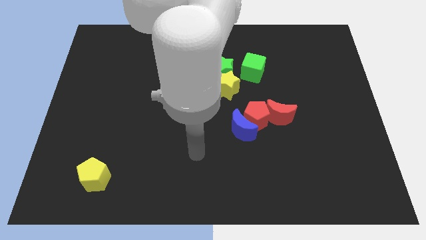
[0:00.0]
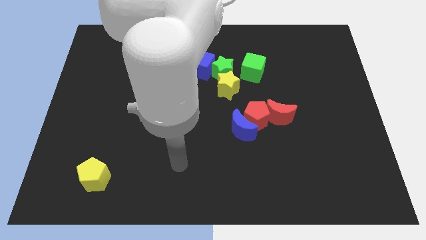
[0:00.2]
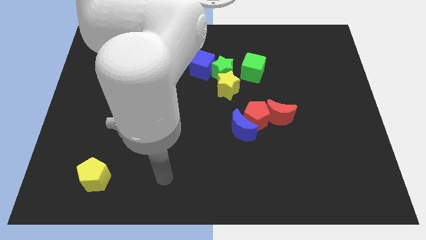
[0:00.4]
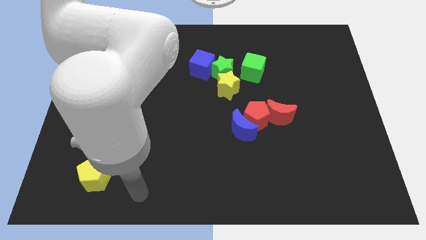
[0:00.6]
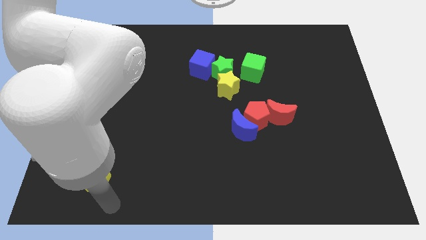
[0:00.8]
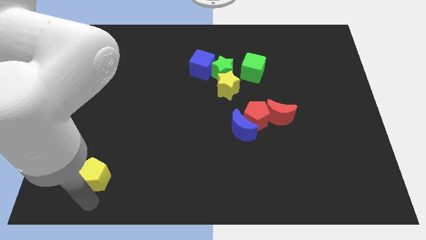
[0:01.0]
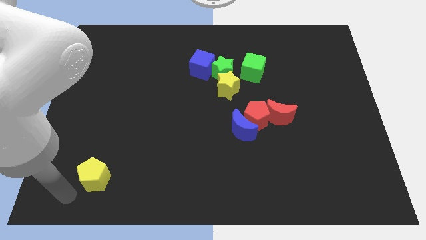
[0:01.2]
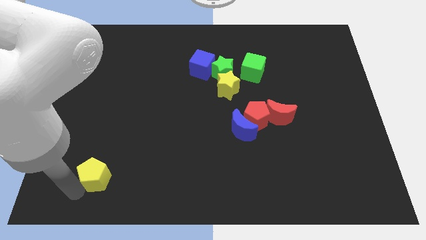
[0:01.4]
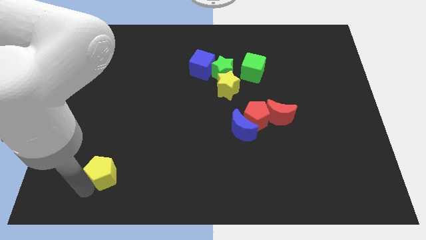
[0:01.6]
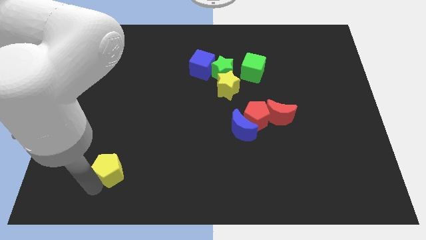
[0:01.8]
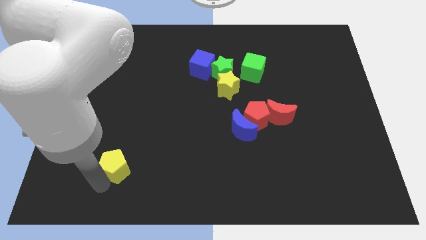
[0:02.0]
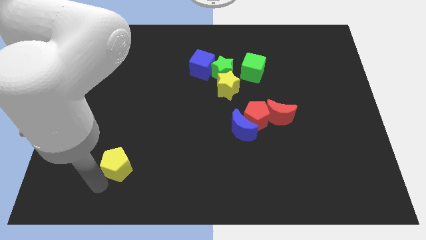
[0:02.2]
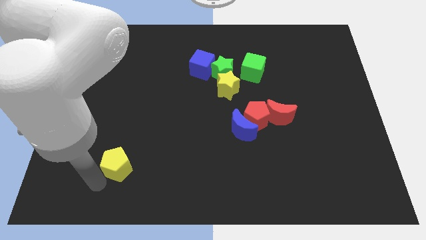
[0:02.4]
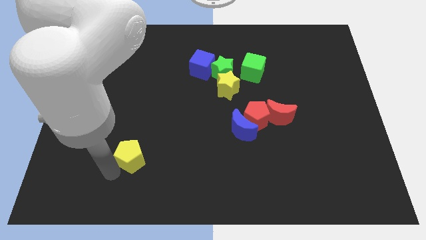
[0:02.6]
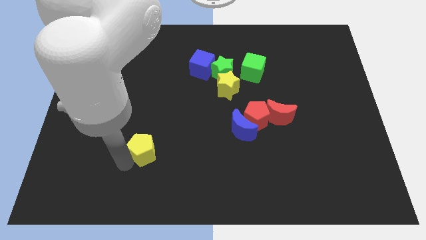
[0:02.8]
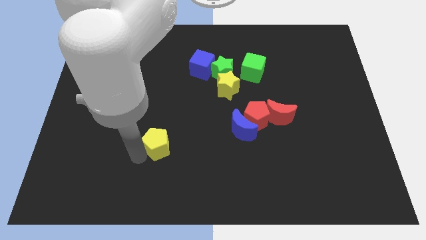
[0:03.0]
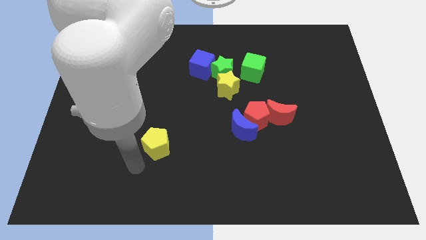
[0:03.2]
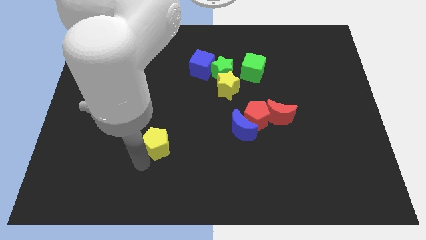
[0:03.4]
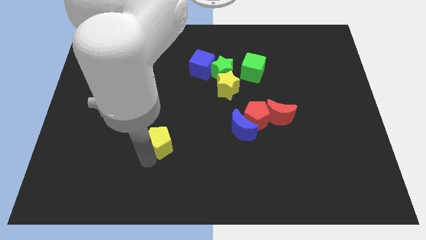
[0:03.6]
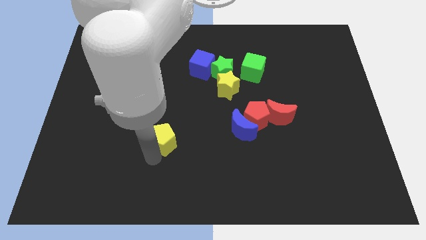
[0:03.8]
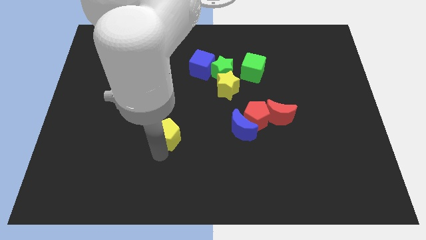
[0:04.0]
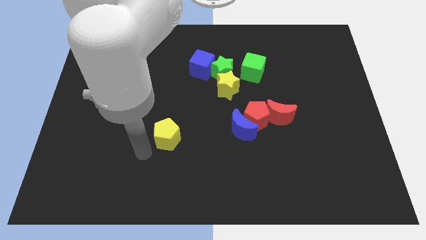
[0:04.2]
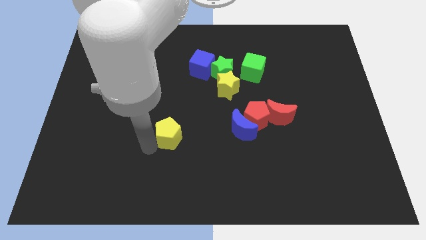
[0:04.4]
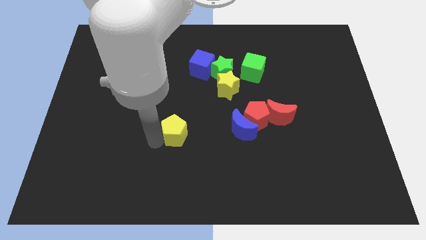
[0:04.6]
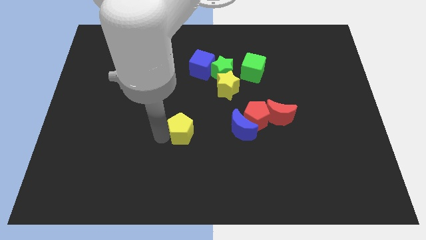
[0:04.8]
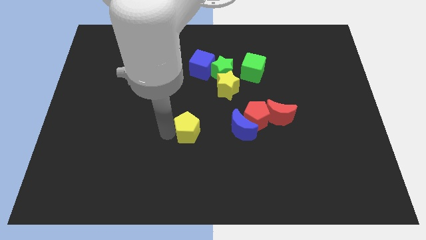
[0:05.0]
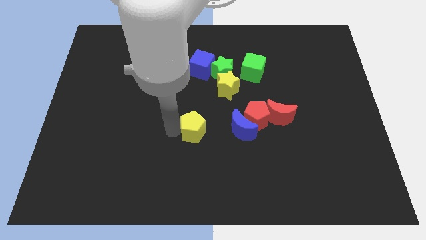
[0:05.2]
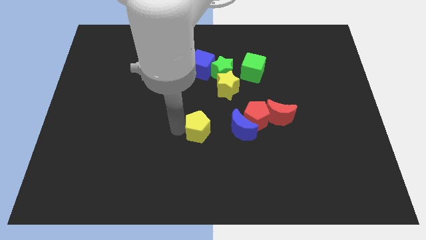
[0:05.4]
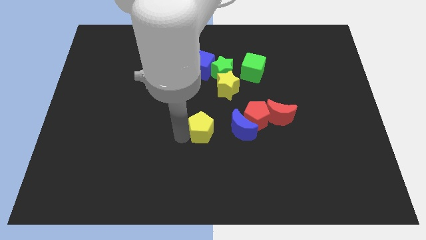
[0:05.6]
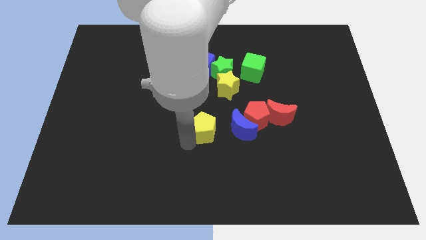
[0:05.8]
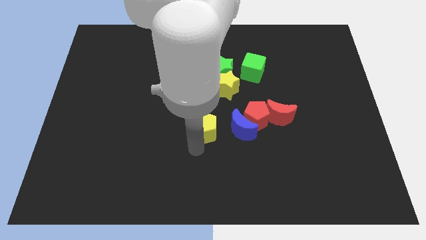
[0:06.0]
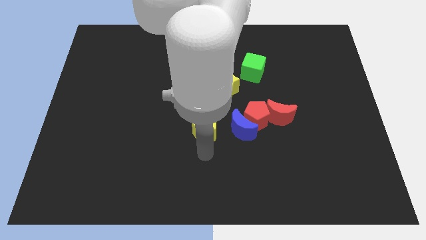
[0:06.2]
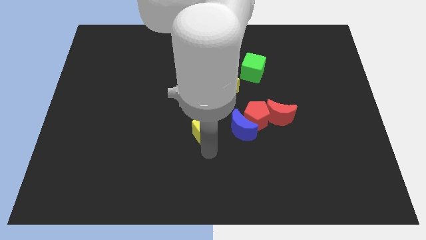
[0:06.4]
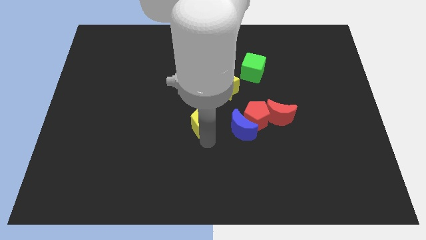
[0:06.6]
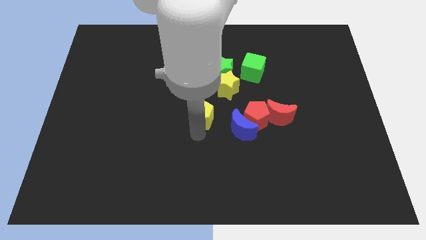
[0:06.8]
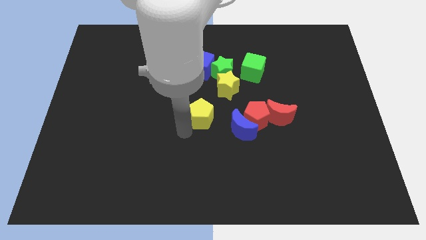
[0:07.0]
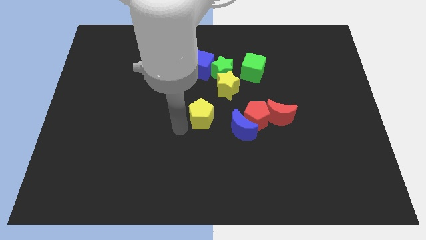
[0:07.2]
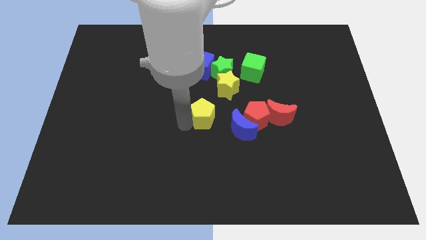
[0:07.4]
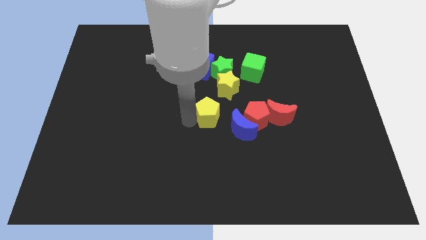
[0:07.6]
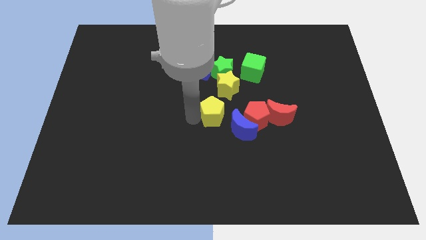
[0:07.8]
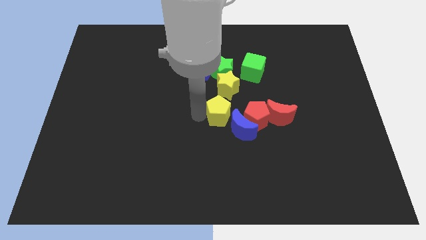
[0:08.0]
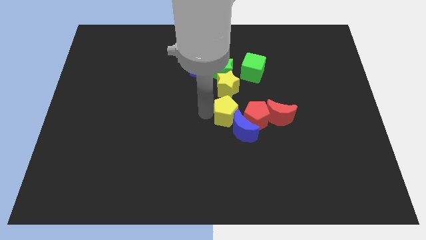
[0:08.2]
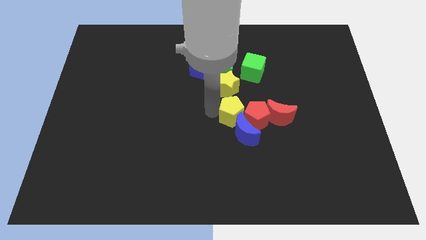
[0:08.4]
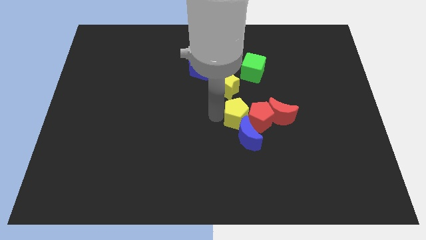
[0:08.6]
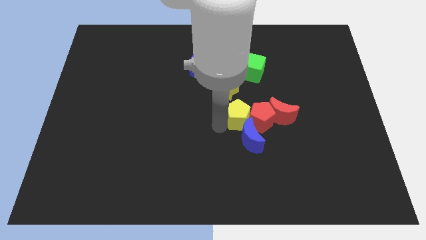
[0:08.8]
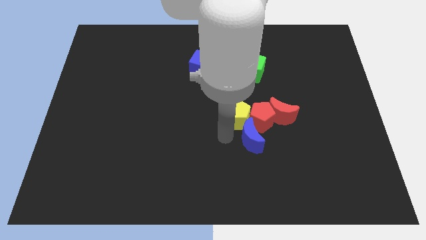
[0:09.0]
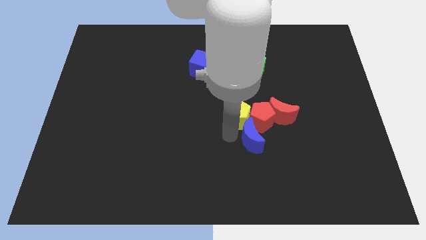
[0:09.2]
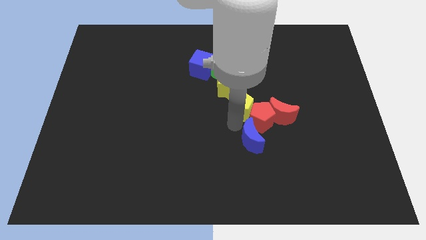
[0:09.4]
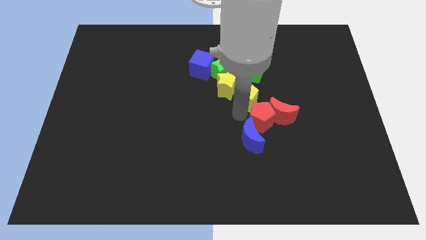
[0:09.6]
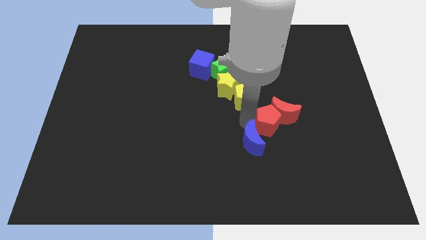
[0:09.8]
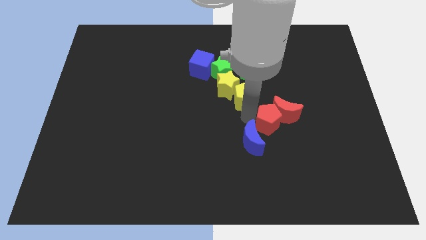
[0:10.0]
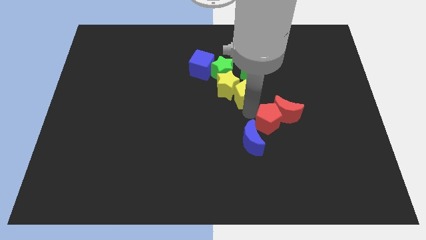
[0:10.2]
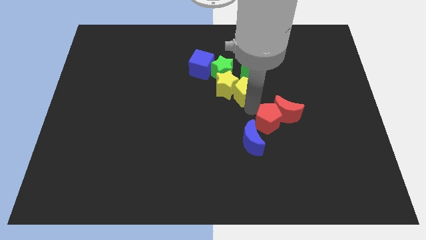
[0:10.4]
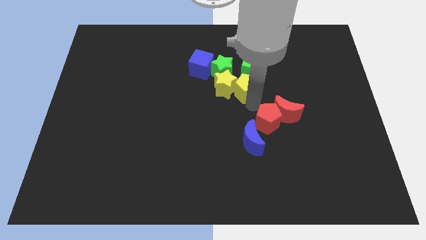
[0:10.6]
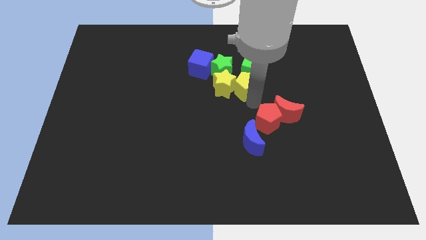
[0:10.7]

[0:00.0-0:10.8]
slide the yellow pentagon close to the green cube

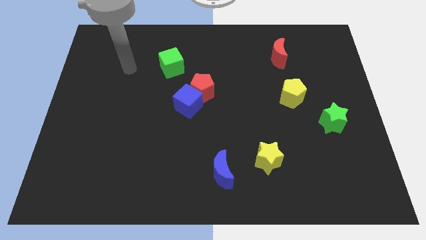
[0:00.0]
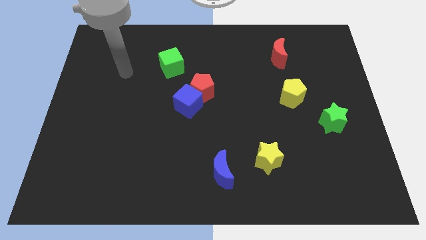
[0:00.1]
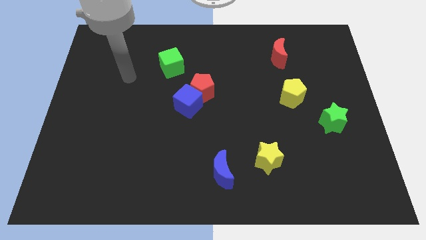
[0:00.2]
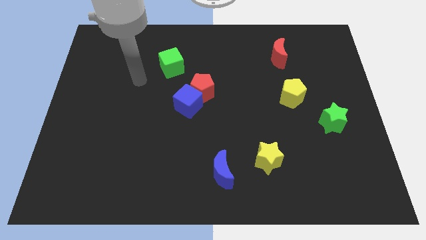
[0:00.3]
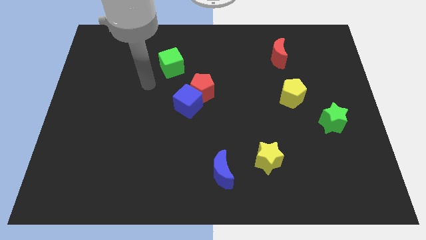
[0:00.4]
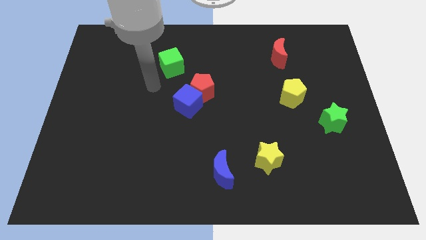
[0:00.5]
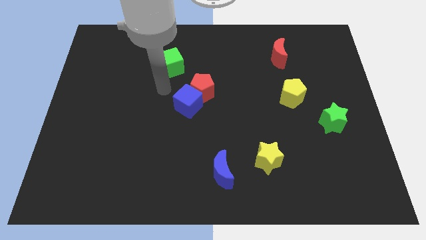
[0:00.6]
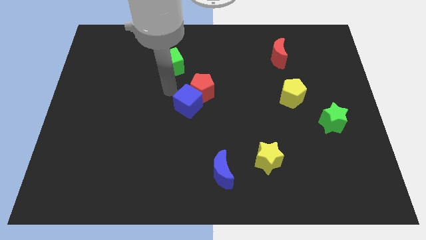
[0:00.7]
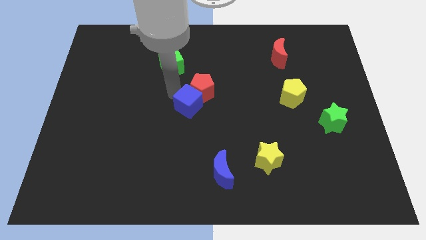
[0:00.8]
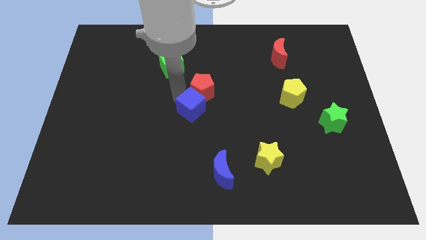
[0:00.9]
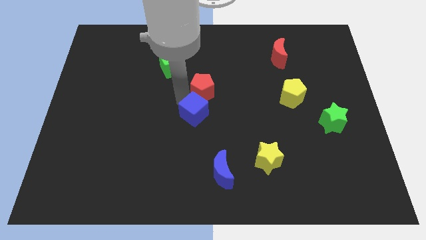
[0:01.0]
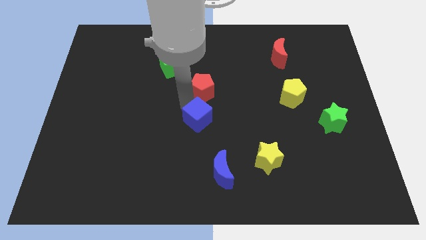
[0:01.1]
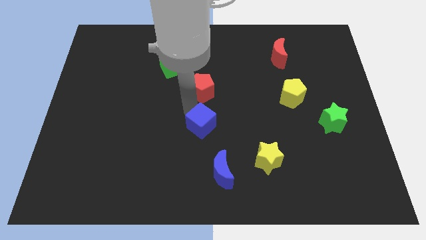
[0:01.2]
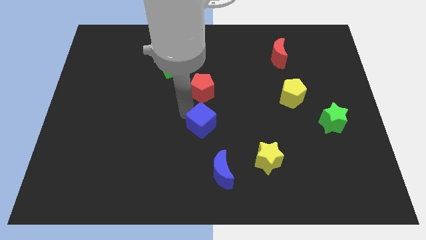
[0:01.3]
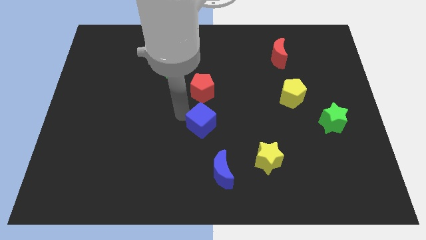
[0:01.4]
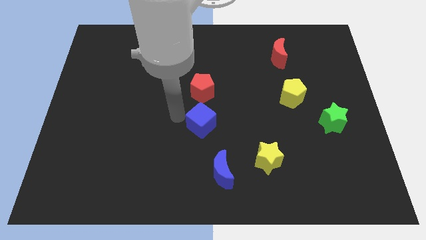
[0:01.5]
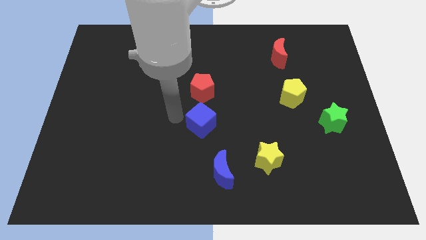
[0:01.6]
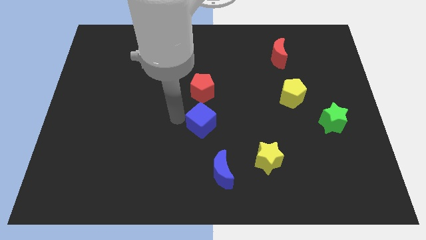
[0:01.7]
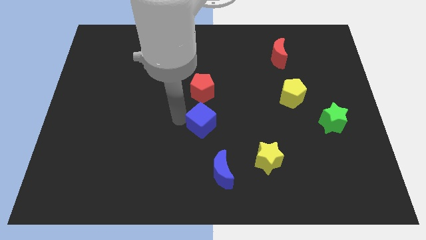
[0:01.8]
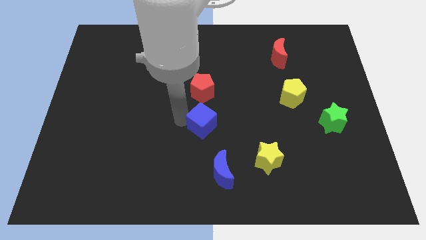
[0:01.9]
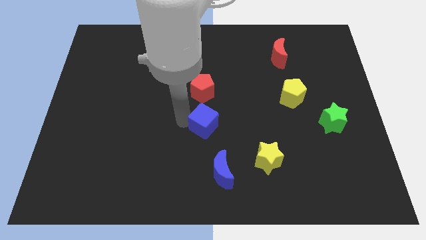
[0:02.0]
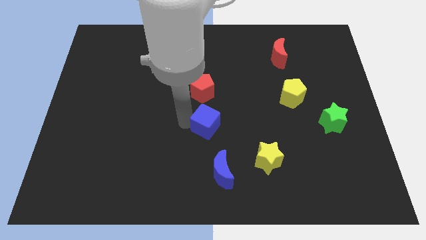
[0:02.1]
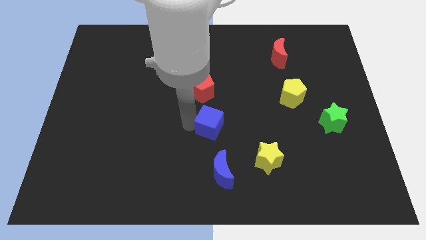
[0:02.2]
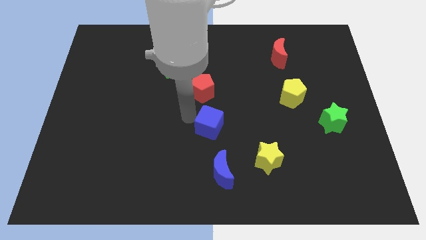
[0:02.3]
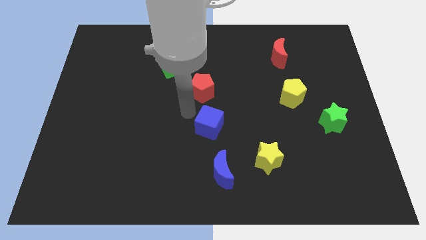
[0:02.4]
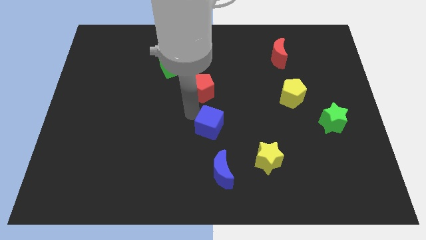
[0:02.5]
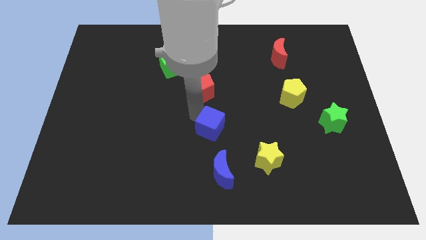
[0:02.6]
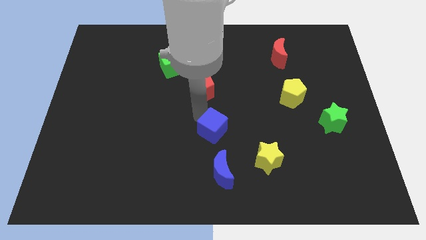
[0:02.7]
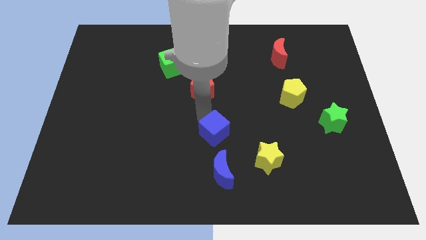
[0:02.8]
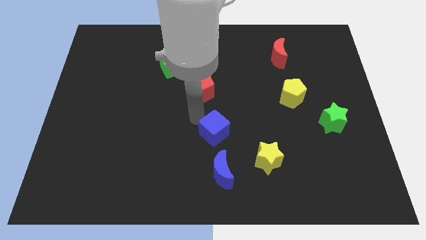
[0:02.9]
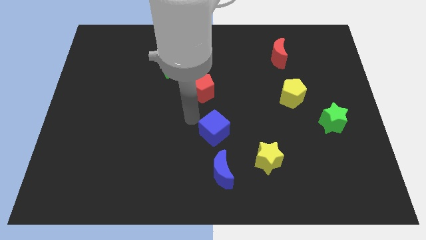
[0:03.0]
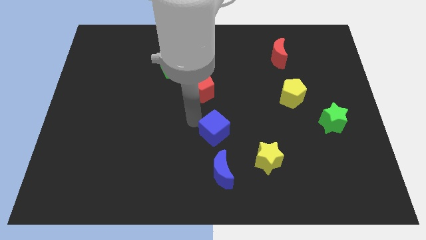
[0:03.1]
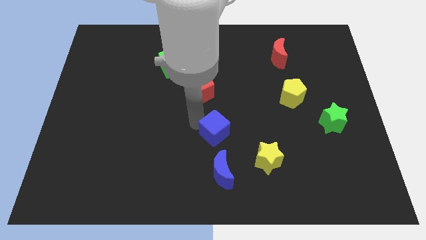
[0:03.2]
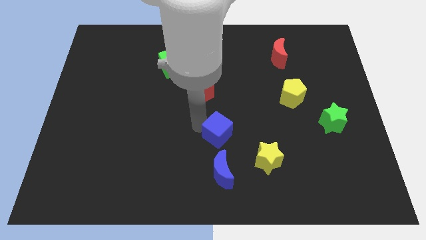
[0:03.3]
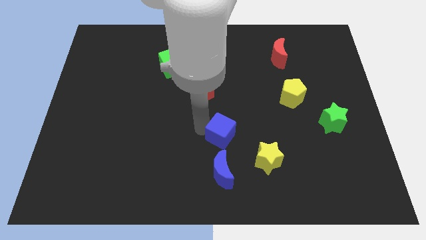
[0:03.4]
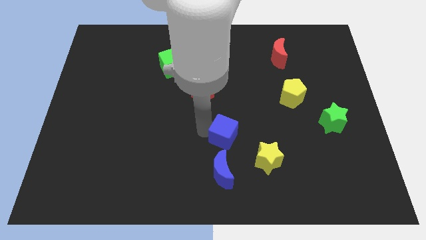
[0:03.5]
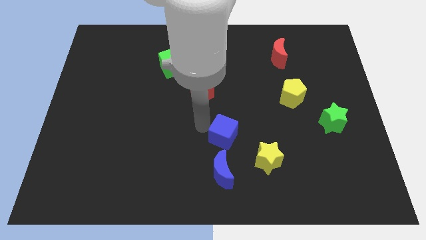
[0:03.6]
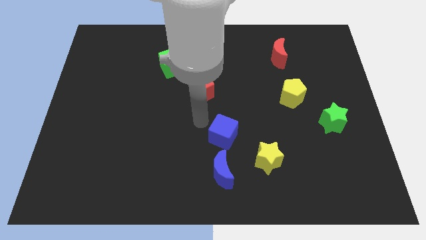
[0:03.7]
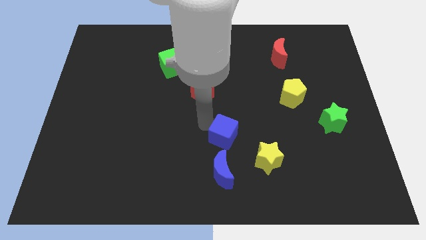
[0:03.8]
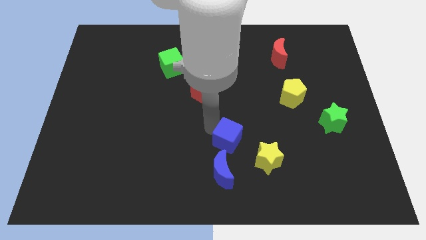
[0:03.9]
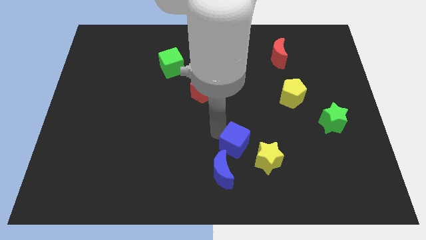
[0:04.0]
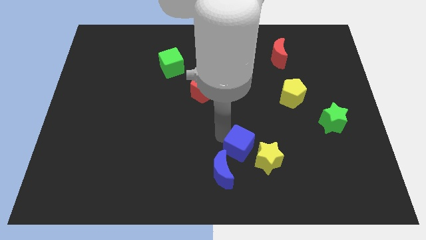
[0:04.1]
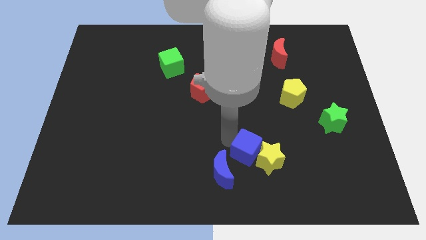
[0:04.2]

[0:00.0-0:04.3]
move the blue cube close to the yellow star
